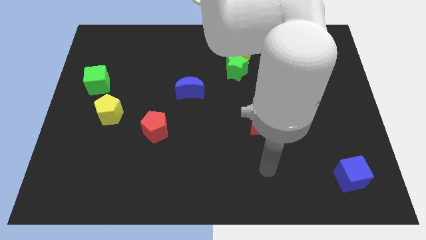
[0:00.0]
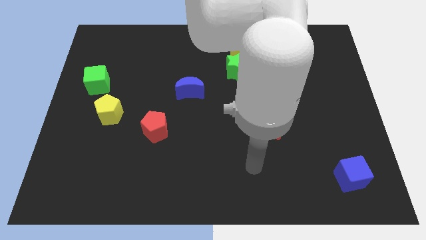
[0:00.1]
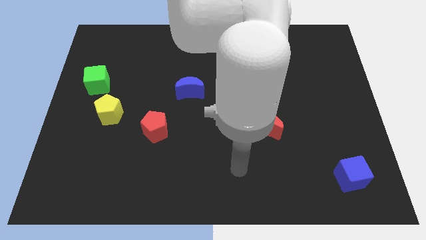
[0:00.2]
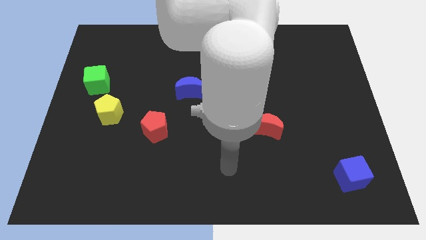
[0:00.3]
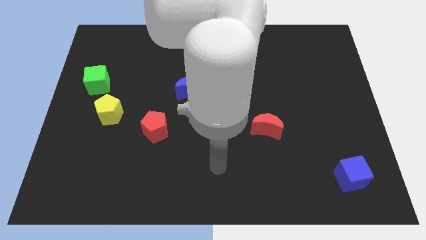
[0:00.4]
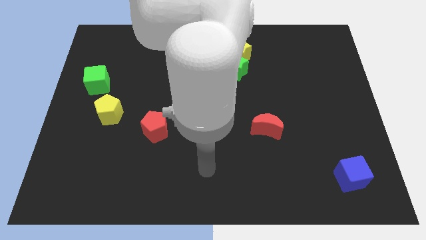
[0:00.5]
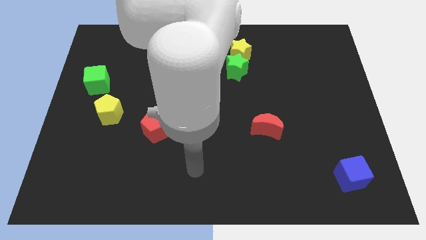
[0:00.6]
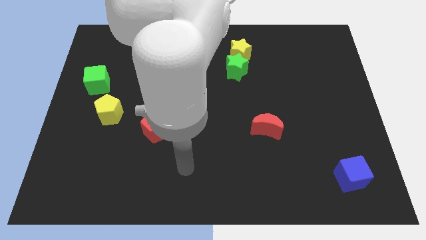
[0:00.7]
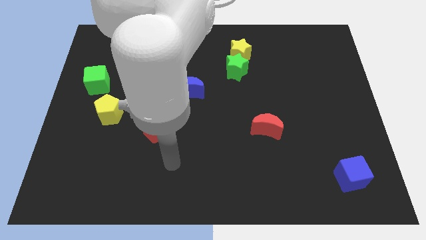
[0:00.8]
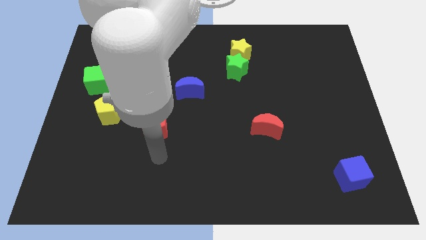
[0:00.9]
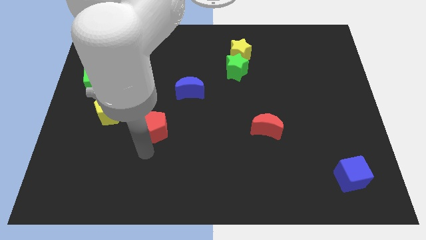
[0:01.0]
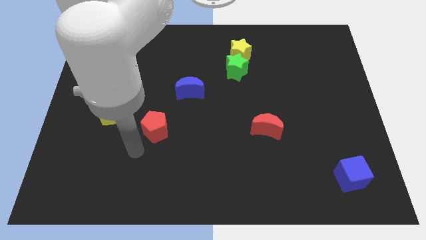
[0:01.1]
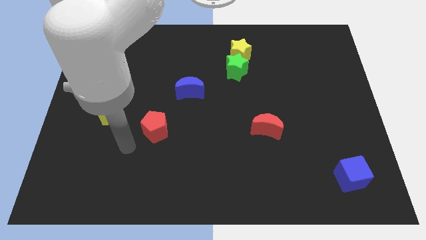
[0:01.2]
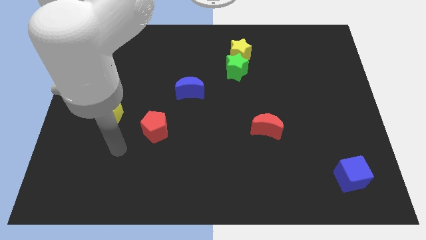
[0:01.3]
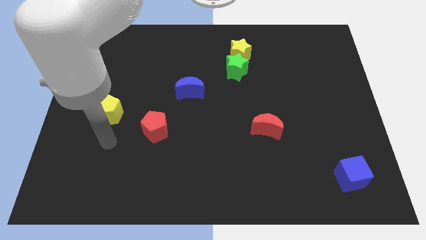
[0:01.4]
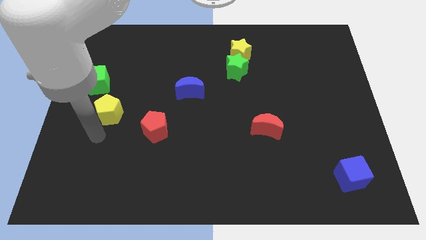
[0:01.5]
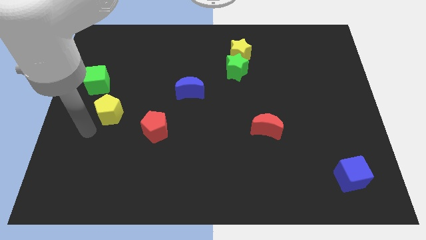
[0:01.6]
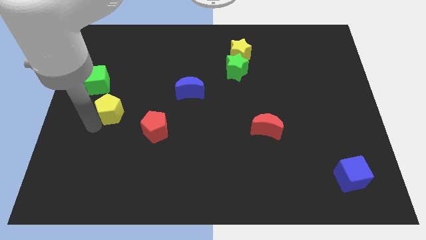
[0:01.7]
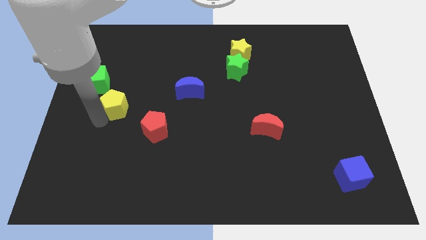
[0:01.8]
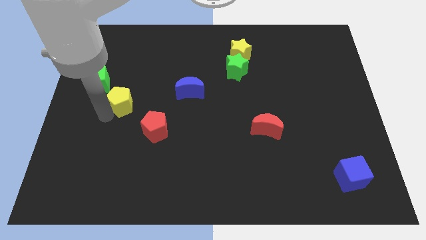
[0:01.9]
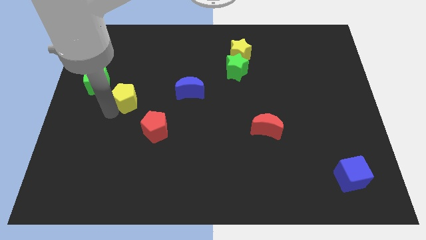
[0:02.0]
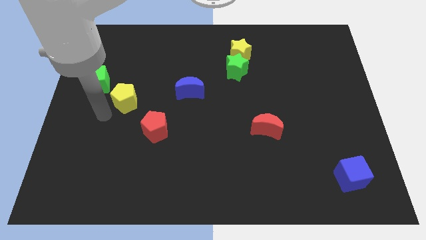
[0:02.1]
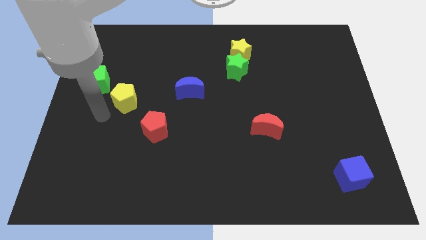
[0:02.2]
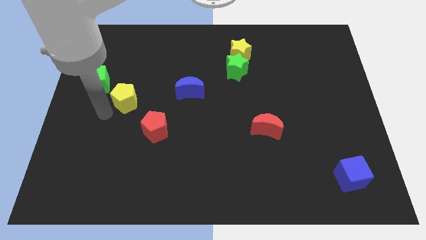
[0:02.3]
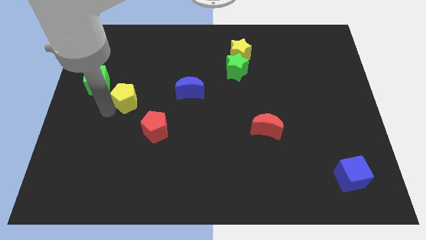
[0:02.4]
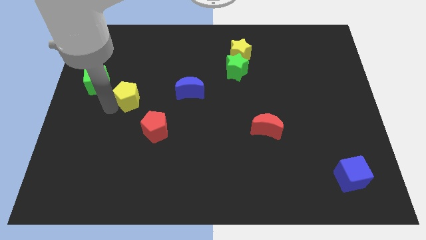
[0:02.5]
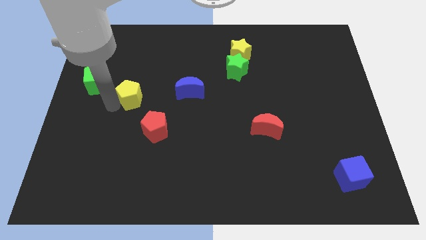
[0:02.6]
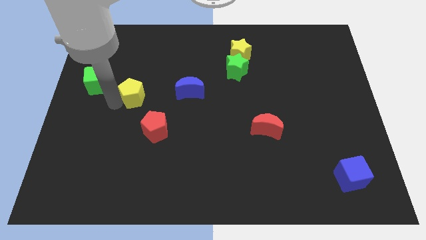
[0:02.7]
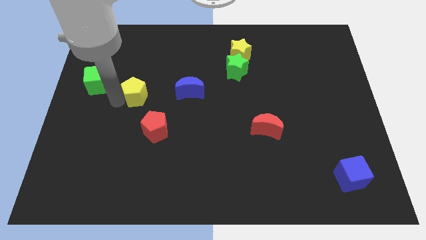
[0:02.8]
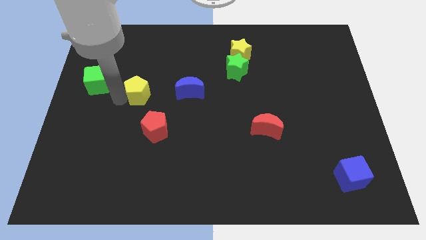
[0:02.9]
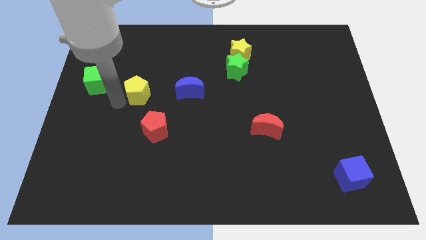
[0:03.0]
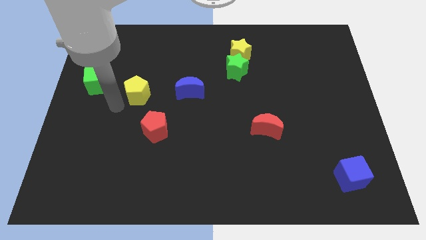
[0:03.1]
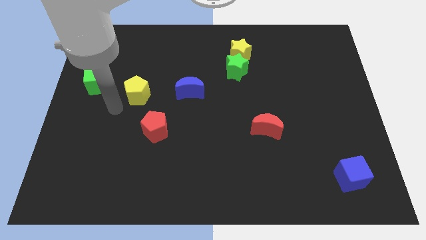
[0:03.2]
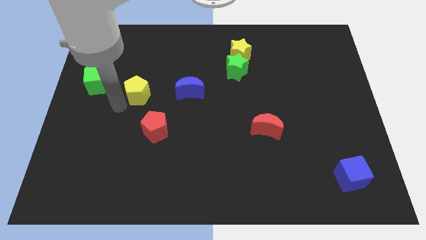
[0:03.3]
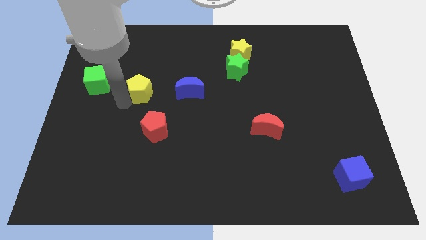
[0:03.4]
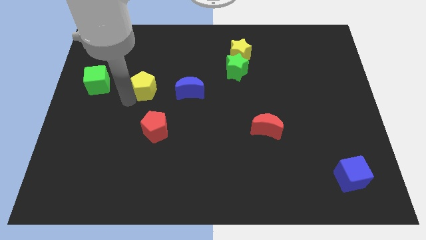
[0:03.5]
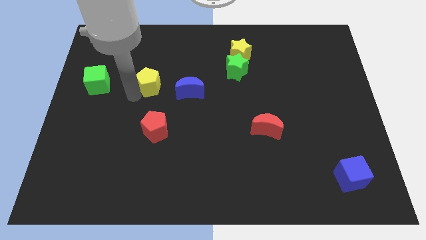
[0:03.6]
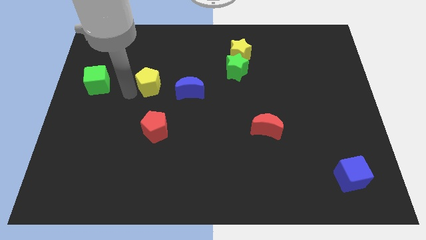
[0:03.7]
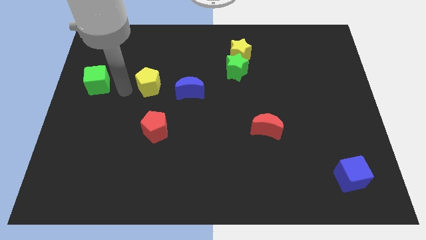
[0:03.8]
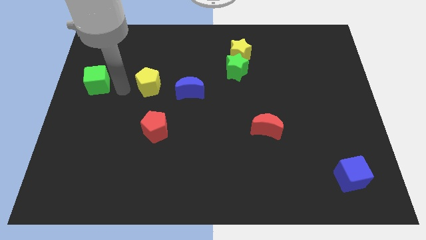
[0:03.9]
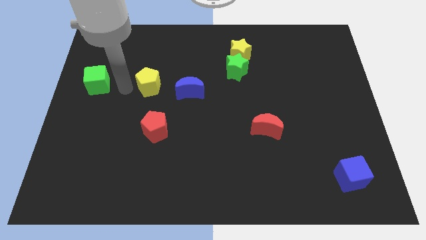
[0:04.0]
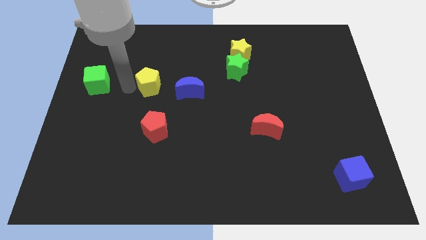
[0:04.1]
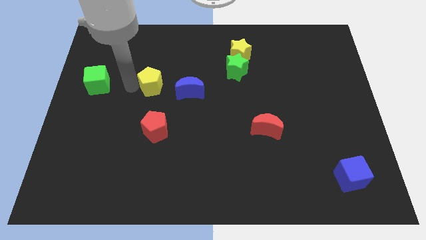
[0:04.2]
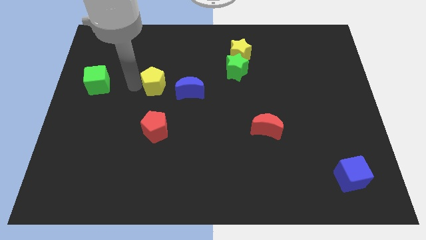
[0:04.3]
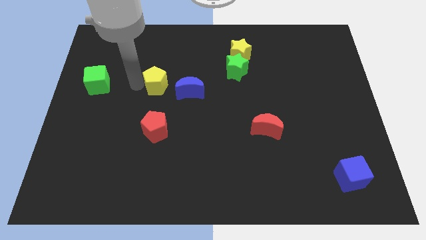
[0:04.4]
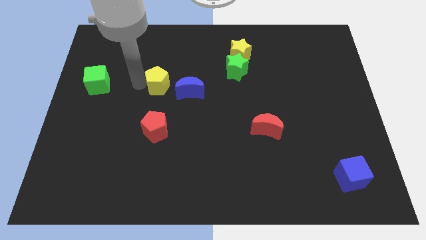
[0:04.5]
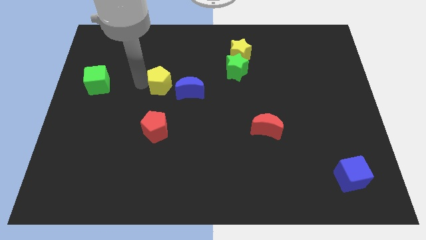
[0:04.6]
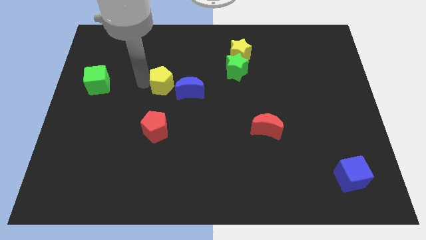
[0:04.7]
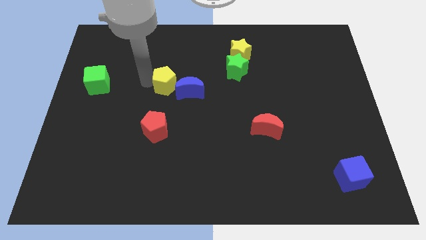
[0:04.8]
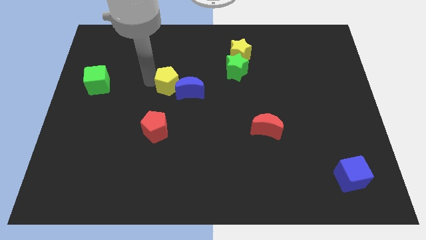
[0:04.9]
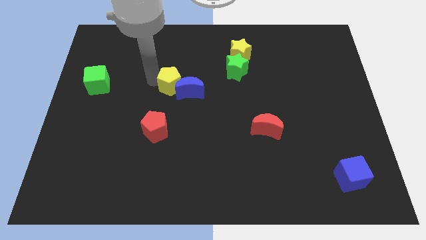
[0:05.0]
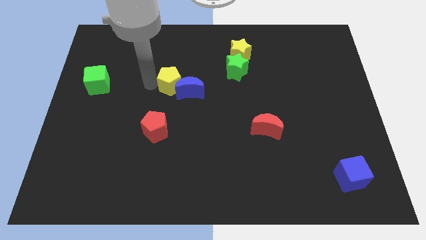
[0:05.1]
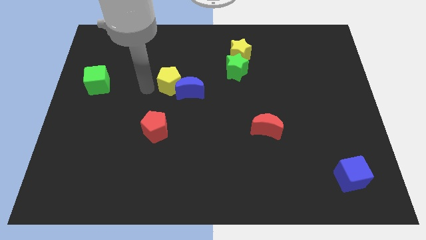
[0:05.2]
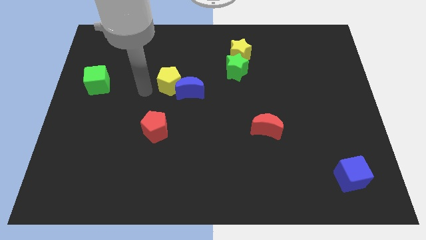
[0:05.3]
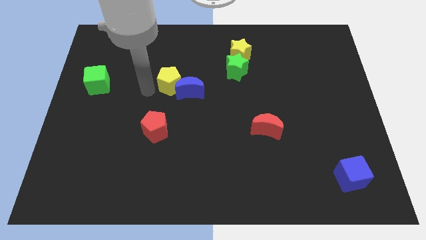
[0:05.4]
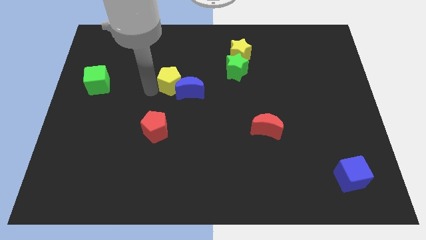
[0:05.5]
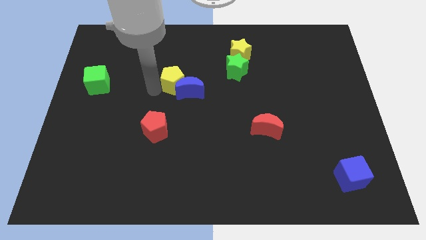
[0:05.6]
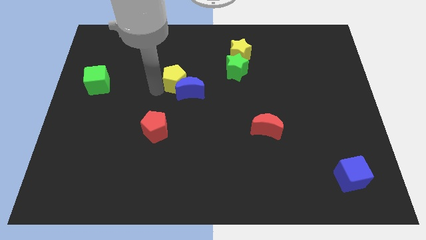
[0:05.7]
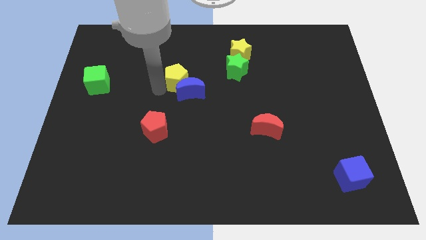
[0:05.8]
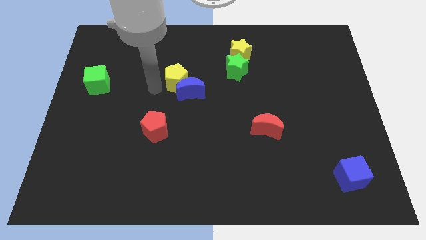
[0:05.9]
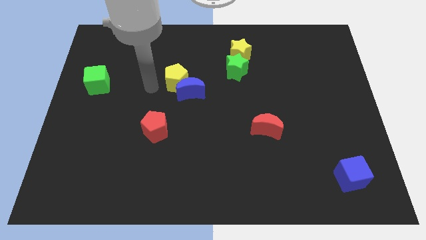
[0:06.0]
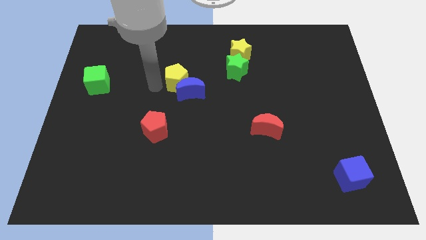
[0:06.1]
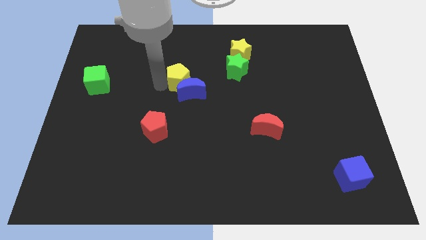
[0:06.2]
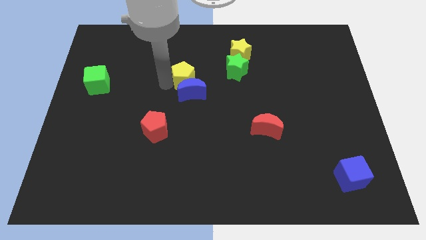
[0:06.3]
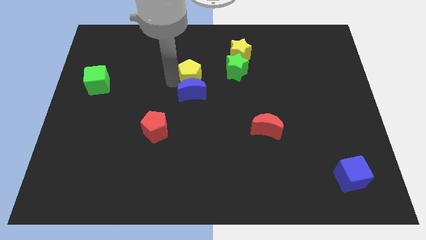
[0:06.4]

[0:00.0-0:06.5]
push the yellow pentagon to the top right side of the blue moon
